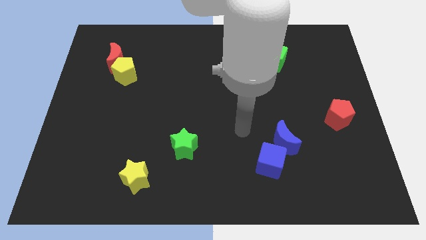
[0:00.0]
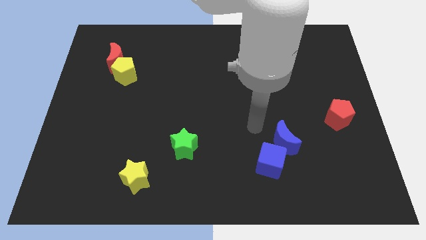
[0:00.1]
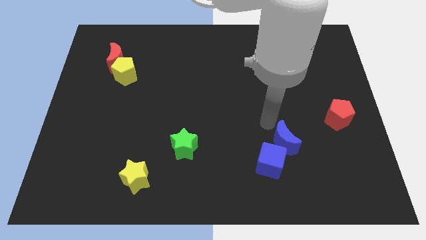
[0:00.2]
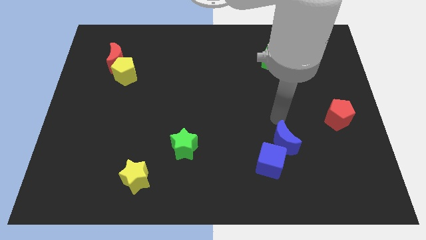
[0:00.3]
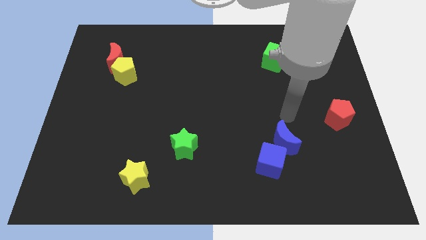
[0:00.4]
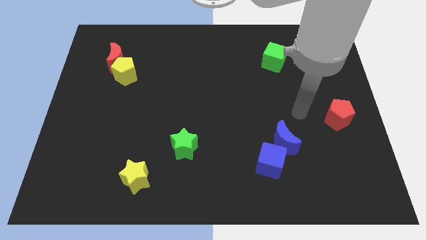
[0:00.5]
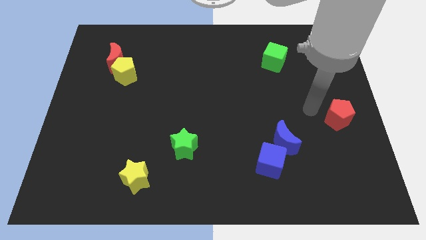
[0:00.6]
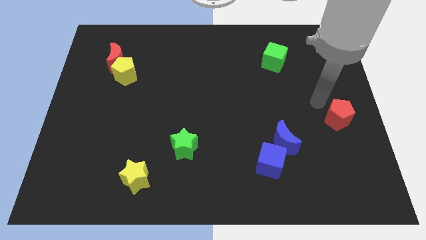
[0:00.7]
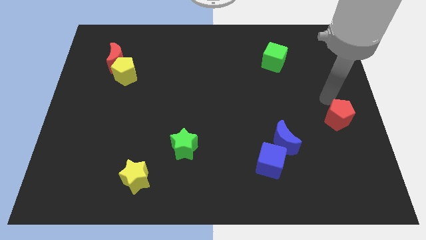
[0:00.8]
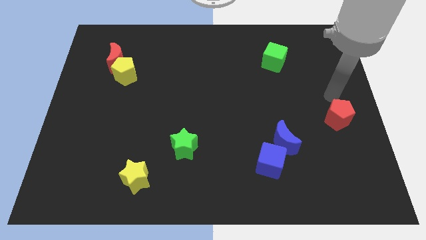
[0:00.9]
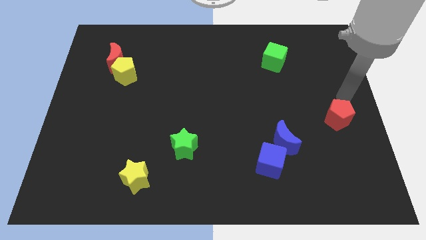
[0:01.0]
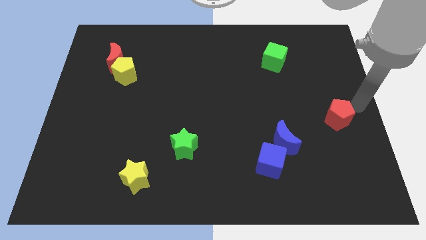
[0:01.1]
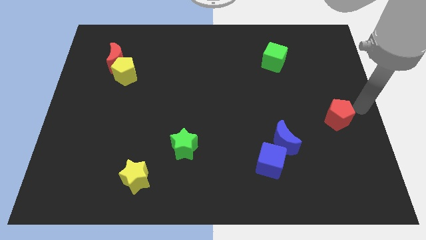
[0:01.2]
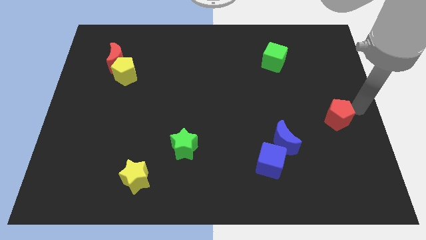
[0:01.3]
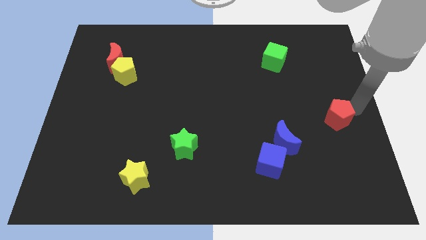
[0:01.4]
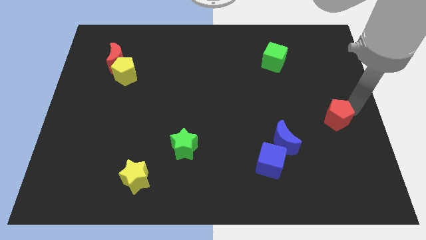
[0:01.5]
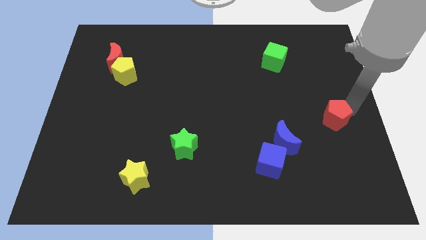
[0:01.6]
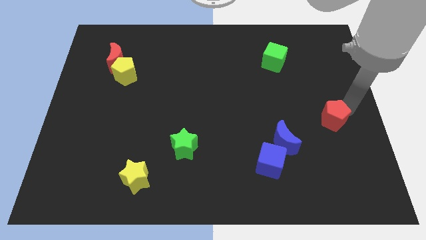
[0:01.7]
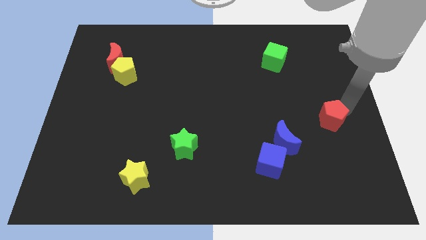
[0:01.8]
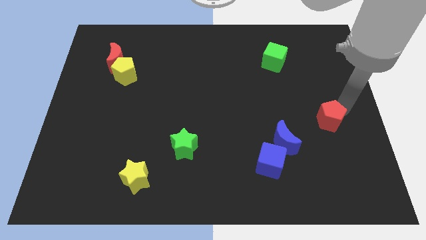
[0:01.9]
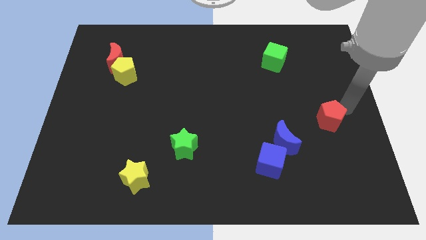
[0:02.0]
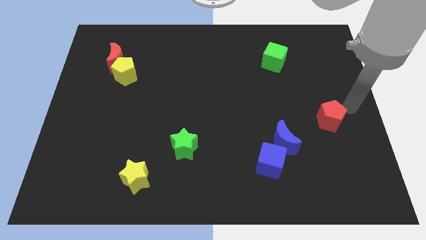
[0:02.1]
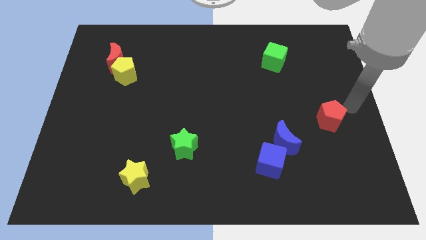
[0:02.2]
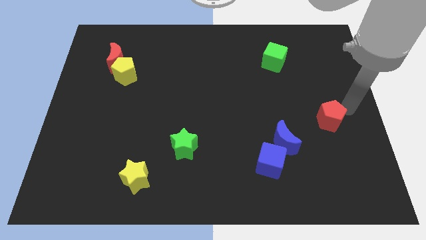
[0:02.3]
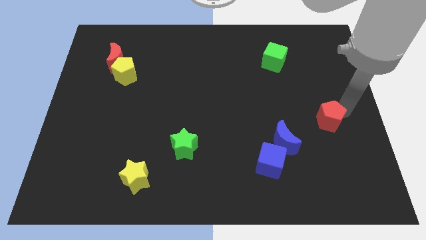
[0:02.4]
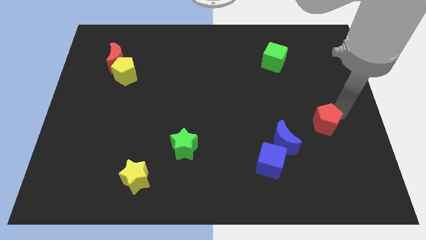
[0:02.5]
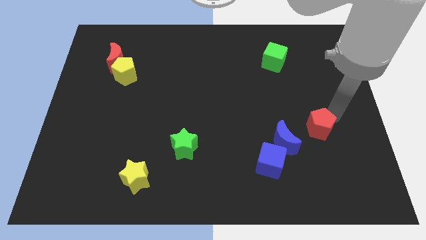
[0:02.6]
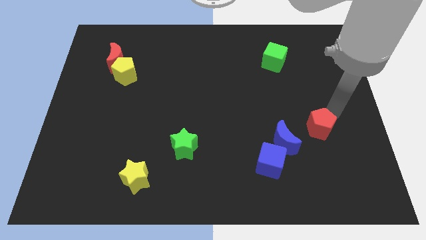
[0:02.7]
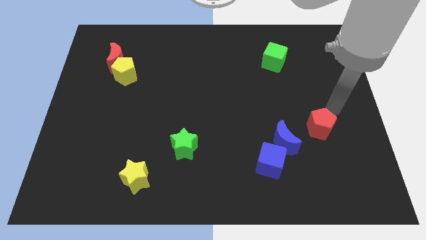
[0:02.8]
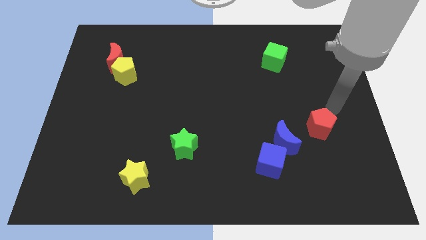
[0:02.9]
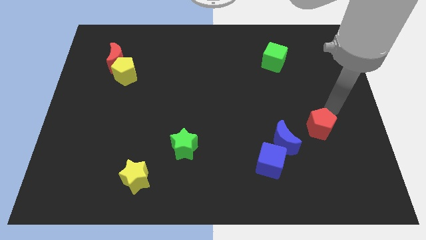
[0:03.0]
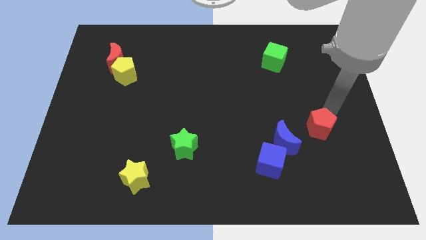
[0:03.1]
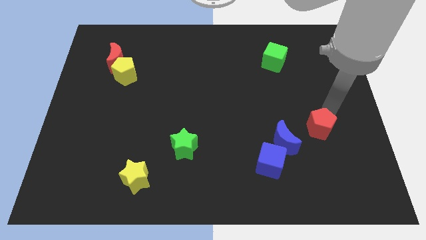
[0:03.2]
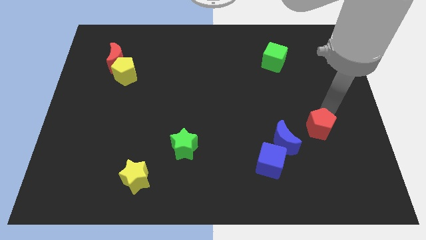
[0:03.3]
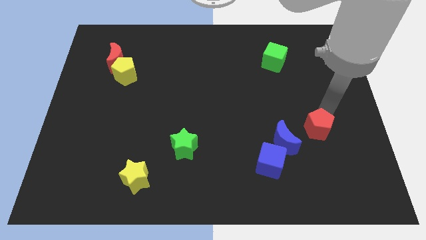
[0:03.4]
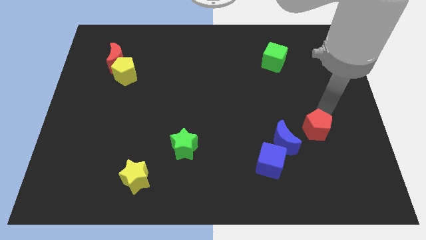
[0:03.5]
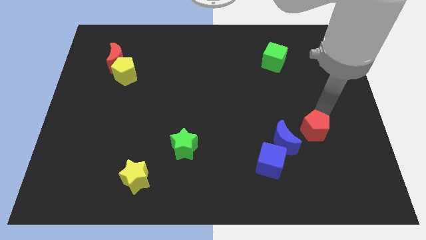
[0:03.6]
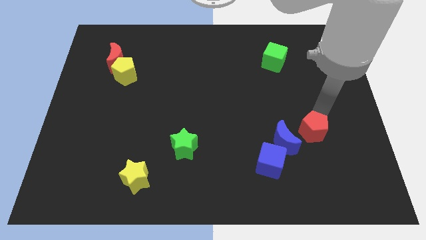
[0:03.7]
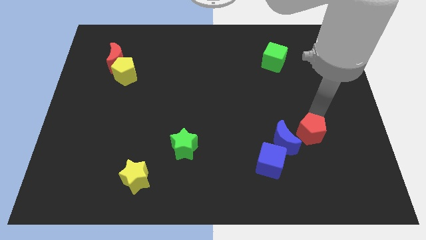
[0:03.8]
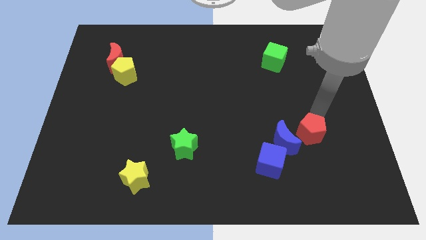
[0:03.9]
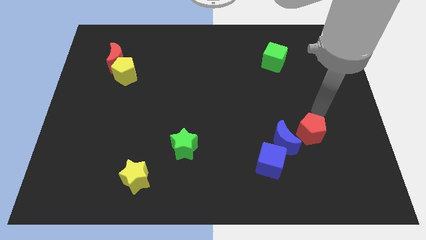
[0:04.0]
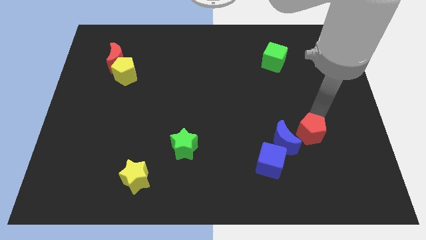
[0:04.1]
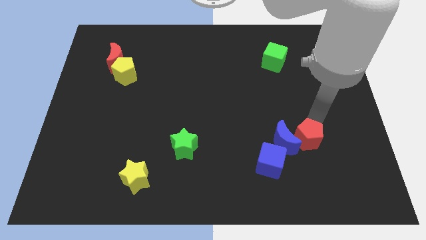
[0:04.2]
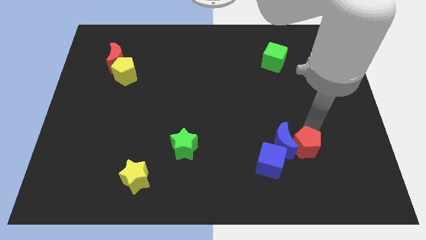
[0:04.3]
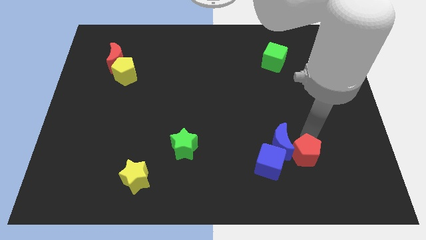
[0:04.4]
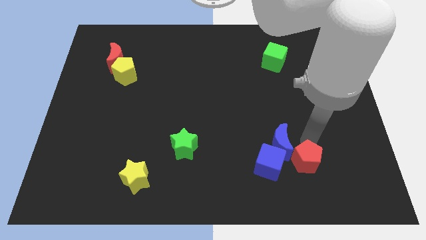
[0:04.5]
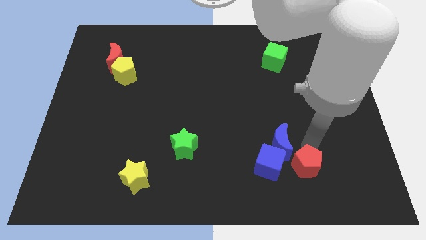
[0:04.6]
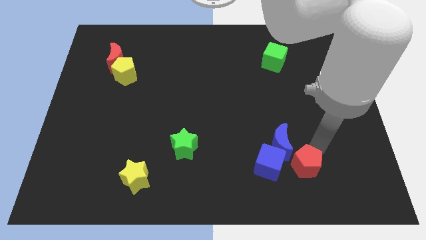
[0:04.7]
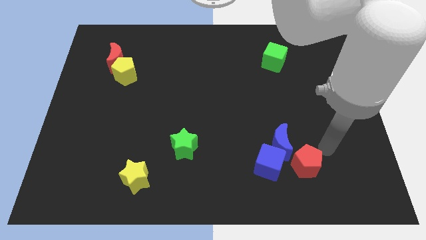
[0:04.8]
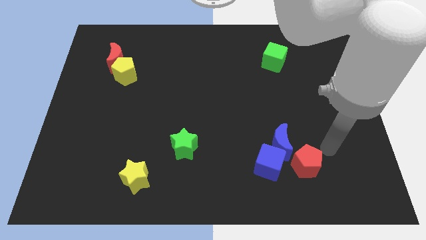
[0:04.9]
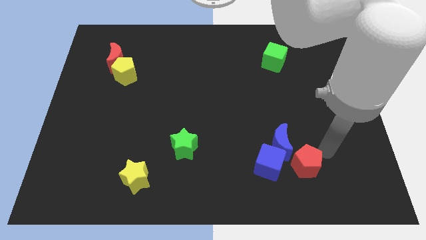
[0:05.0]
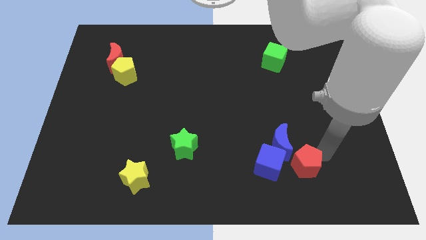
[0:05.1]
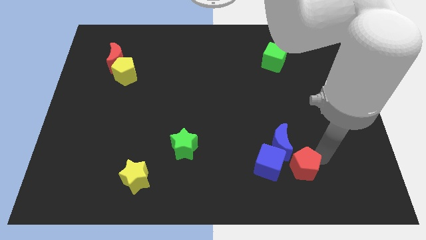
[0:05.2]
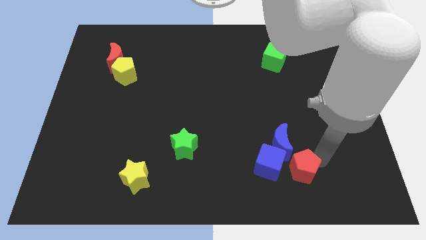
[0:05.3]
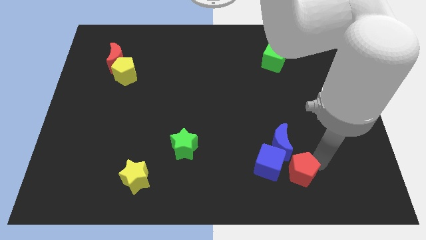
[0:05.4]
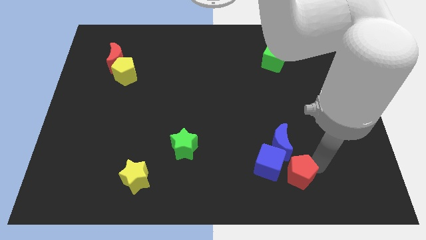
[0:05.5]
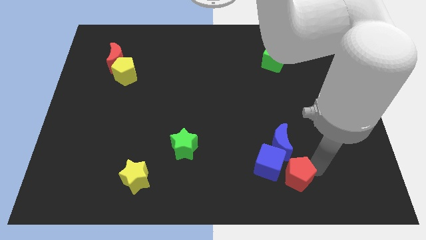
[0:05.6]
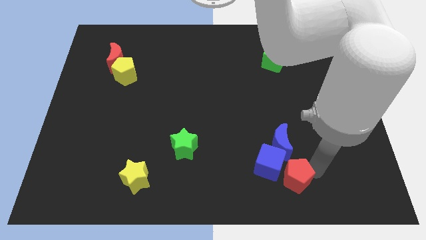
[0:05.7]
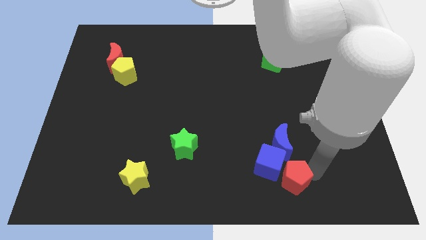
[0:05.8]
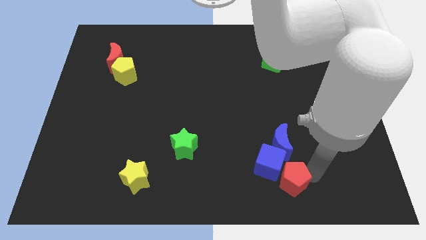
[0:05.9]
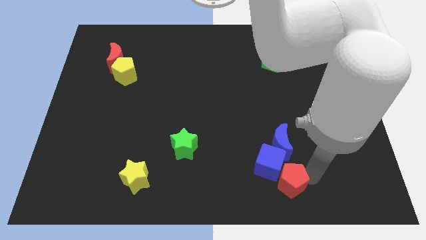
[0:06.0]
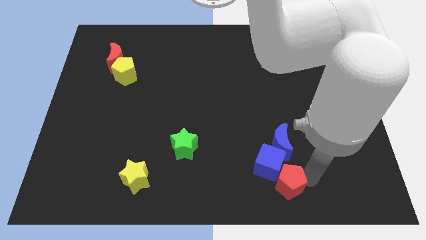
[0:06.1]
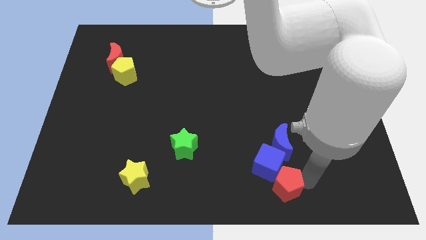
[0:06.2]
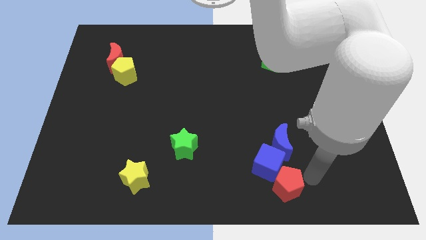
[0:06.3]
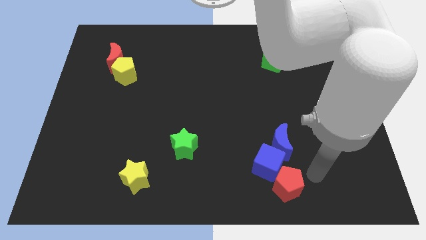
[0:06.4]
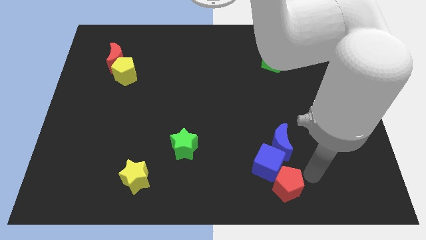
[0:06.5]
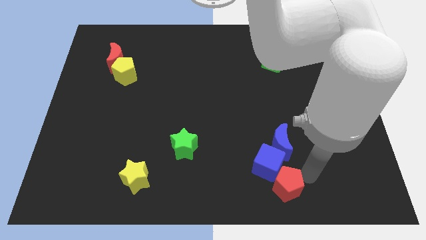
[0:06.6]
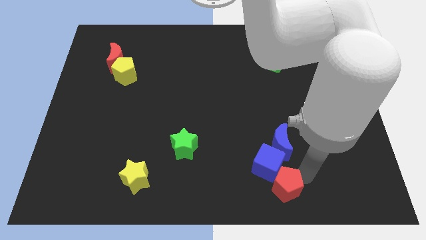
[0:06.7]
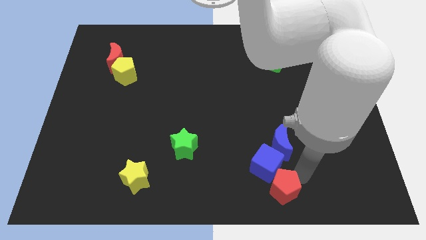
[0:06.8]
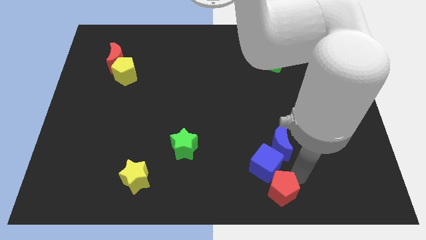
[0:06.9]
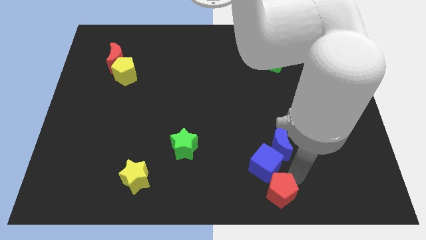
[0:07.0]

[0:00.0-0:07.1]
slide the red pentagon to the bottom side

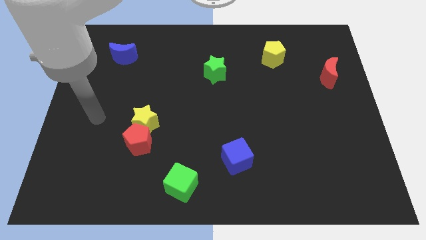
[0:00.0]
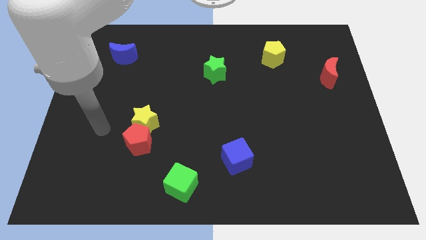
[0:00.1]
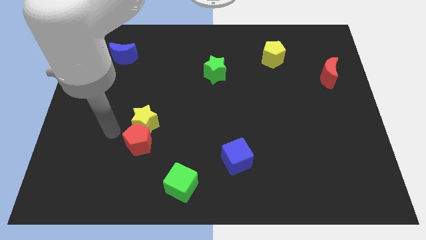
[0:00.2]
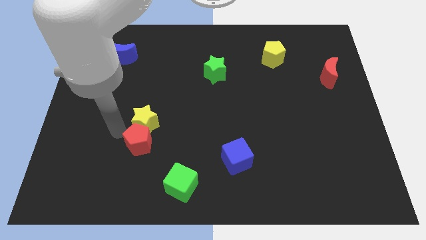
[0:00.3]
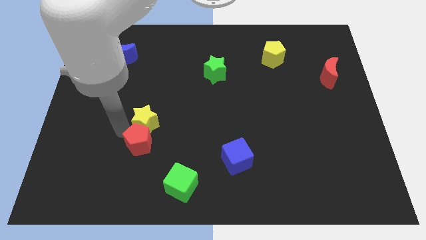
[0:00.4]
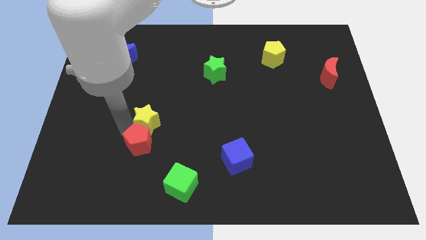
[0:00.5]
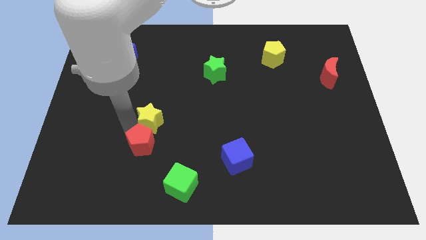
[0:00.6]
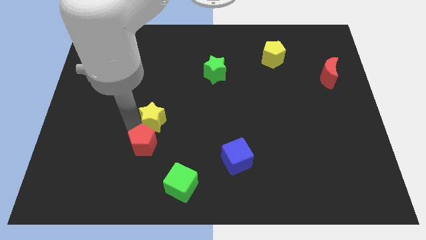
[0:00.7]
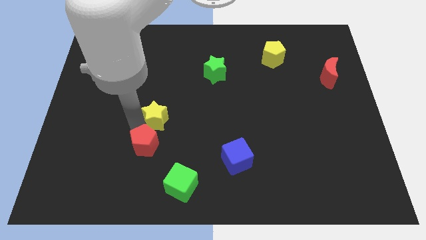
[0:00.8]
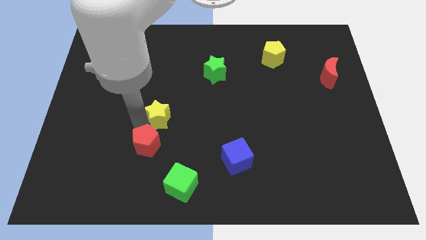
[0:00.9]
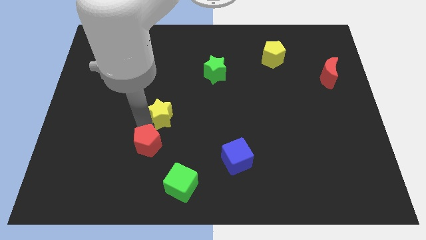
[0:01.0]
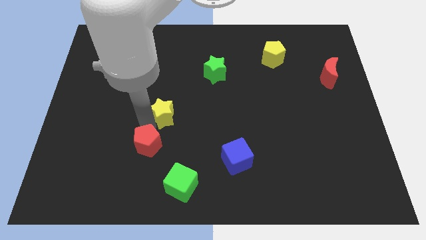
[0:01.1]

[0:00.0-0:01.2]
move the yellow star to the center of the board
